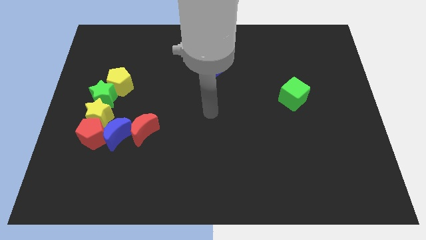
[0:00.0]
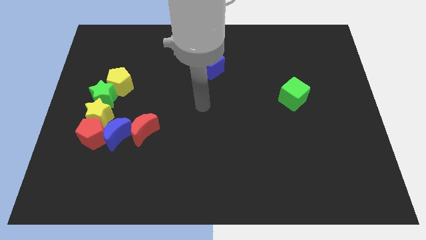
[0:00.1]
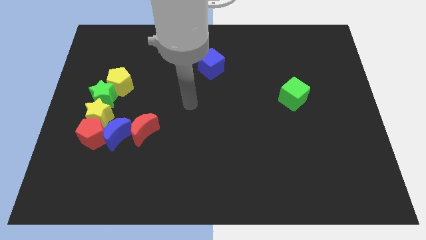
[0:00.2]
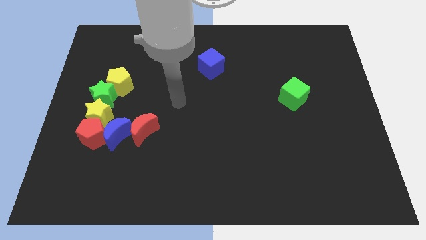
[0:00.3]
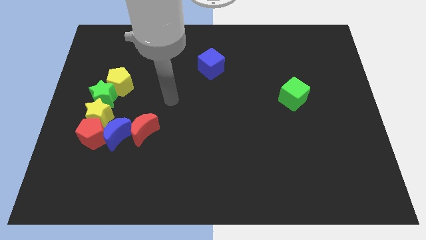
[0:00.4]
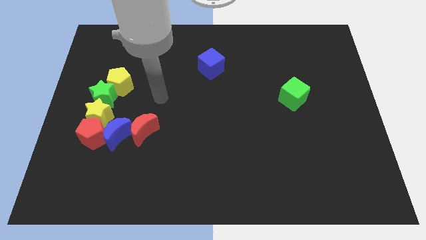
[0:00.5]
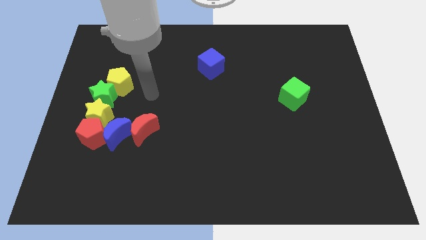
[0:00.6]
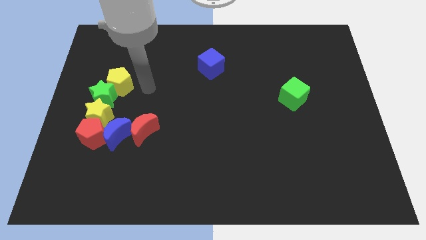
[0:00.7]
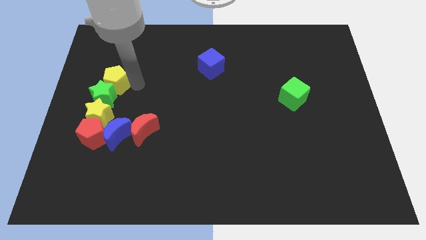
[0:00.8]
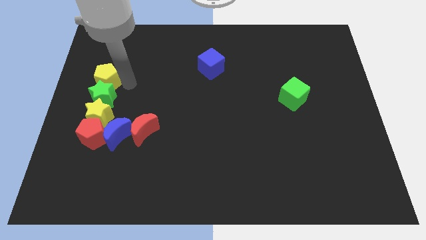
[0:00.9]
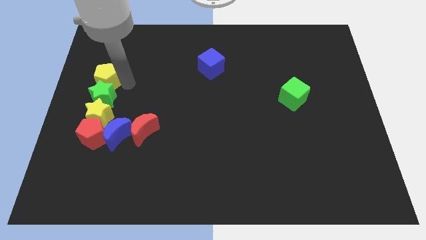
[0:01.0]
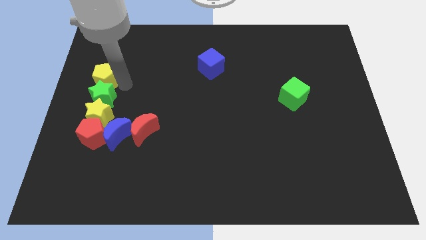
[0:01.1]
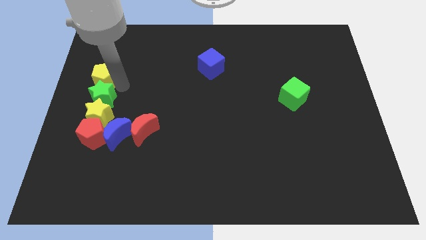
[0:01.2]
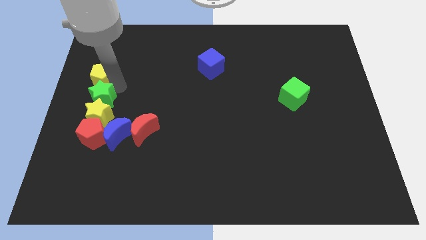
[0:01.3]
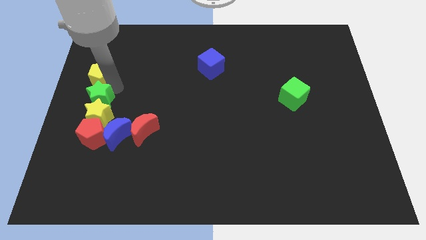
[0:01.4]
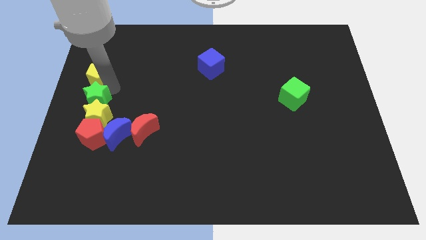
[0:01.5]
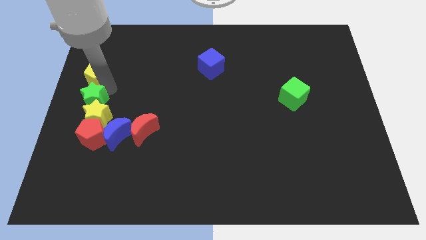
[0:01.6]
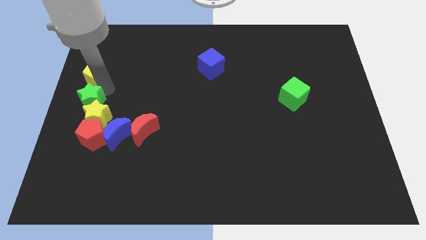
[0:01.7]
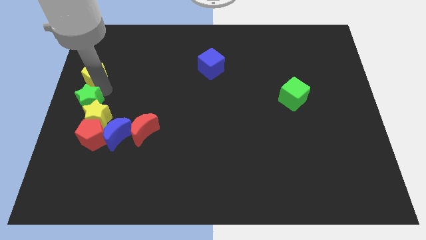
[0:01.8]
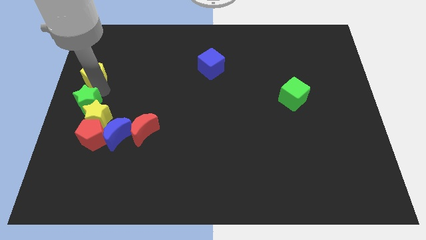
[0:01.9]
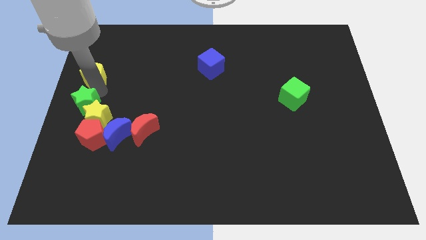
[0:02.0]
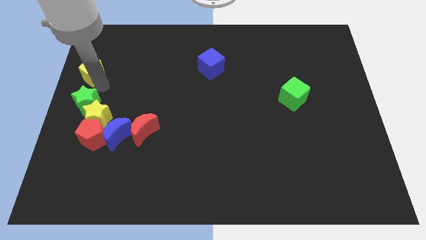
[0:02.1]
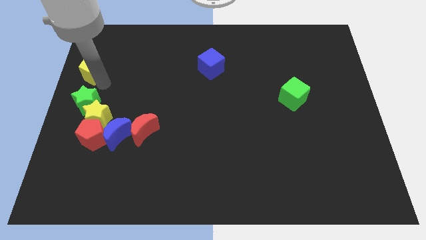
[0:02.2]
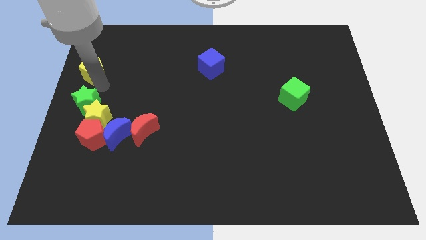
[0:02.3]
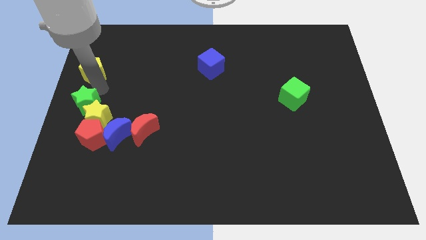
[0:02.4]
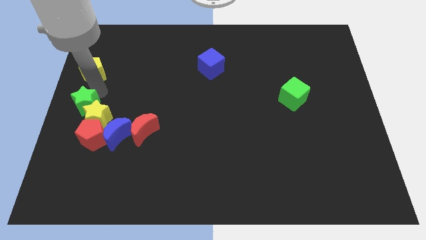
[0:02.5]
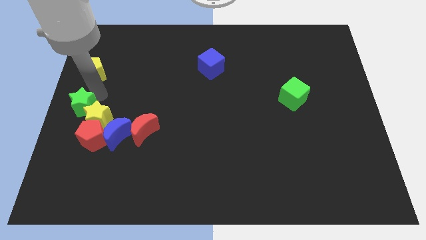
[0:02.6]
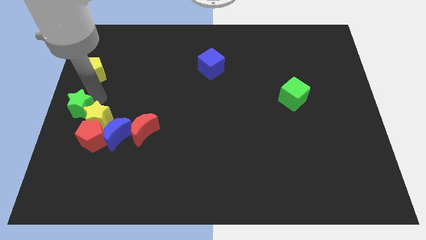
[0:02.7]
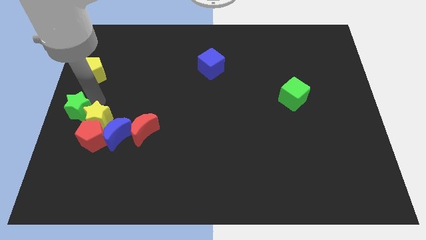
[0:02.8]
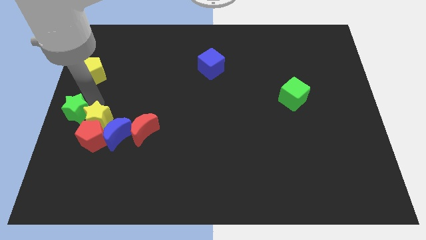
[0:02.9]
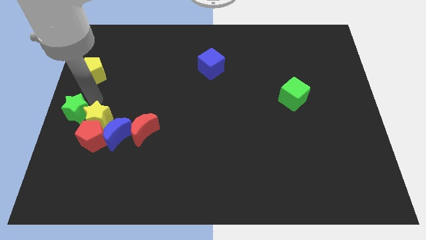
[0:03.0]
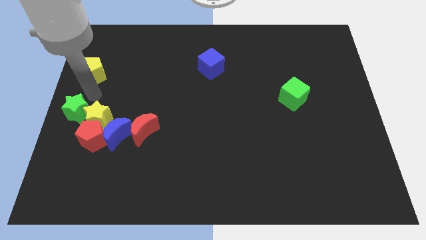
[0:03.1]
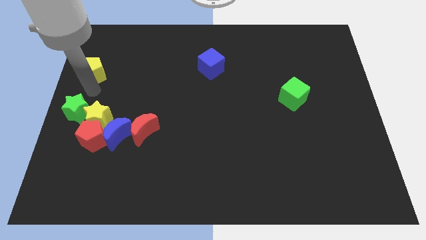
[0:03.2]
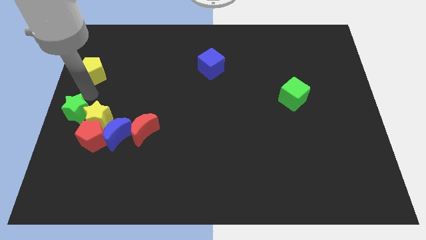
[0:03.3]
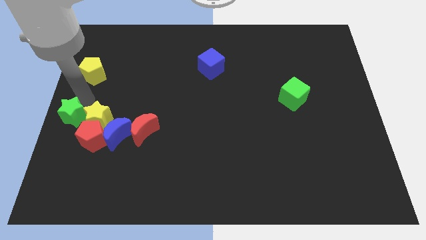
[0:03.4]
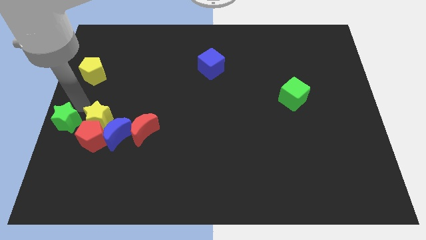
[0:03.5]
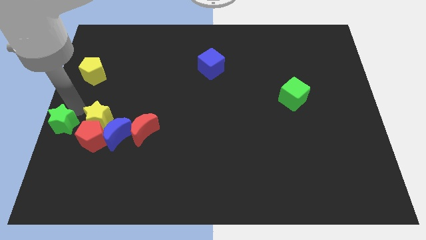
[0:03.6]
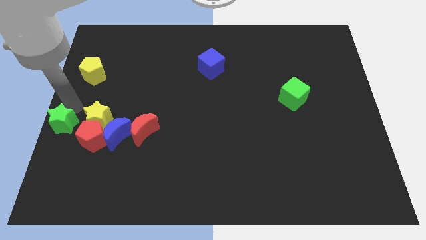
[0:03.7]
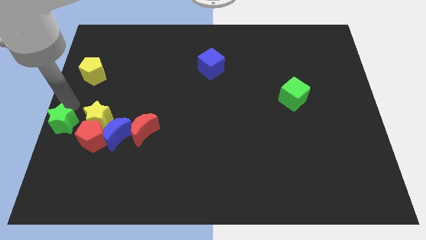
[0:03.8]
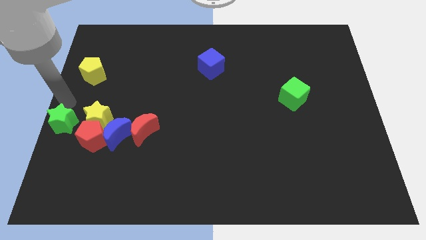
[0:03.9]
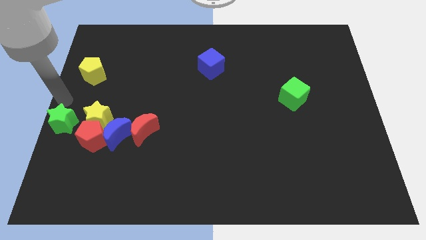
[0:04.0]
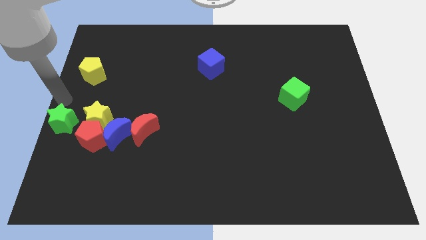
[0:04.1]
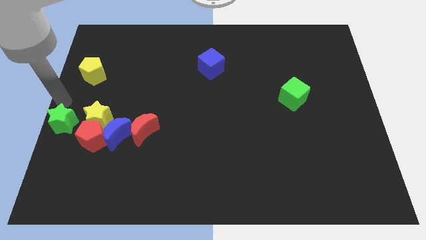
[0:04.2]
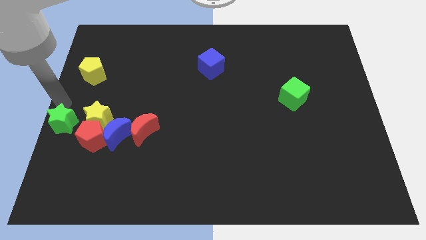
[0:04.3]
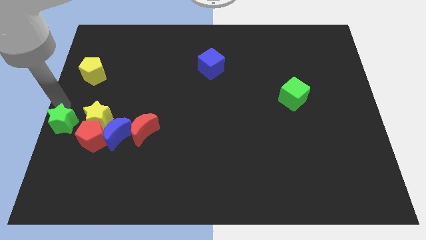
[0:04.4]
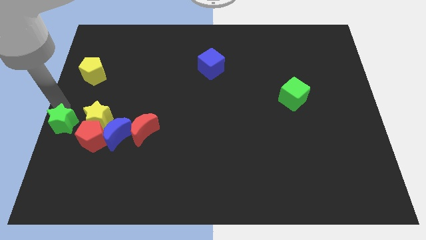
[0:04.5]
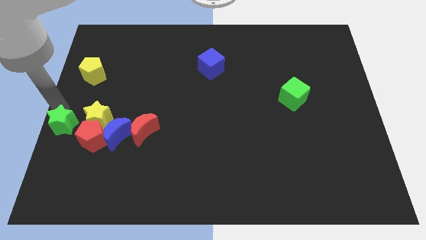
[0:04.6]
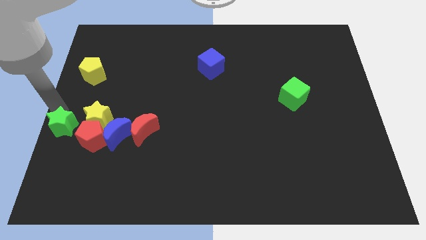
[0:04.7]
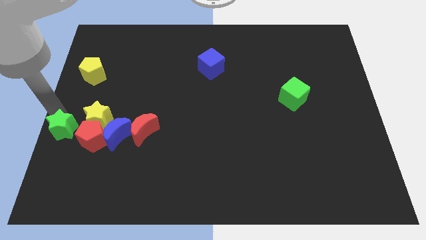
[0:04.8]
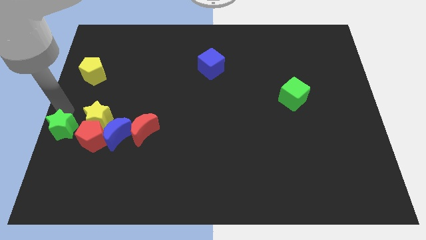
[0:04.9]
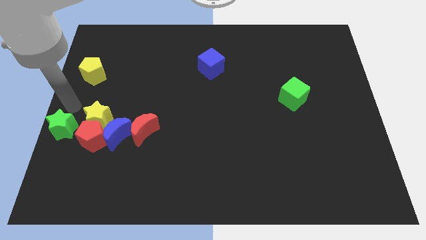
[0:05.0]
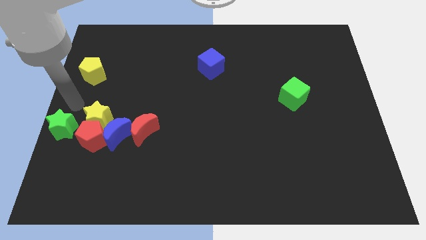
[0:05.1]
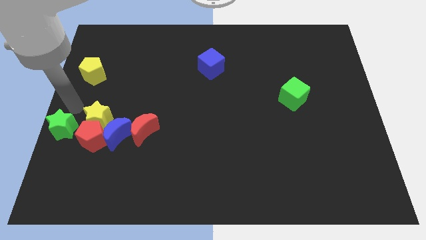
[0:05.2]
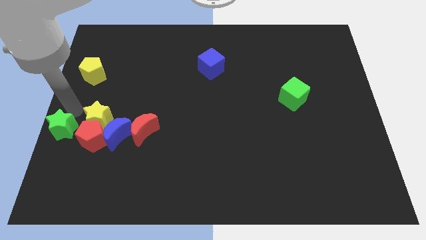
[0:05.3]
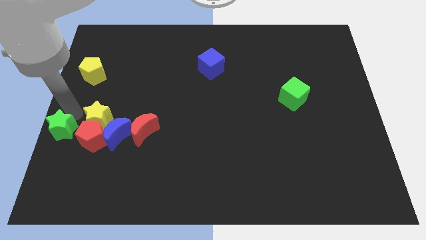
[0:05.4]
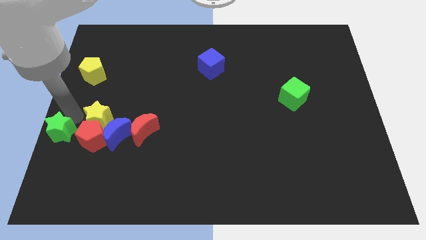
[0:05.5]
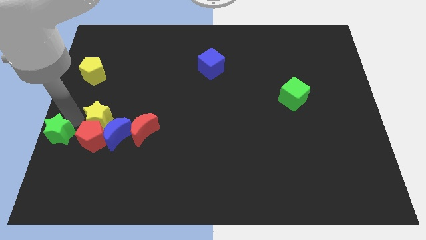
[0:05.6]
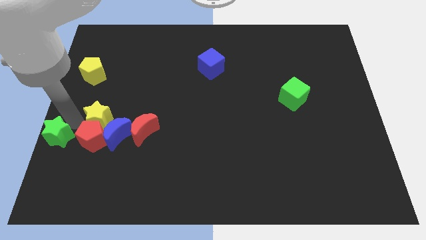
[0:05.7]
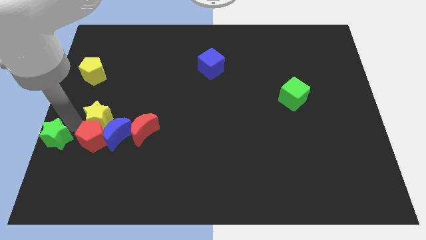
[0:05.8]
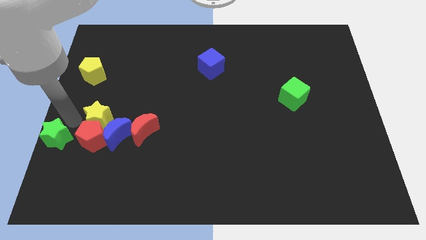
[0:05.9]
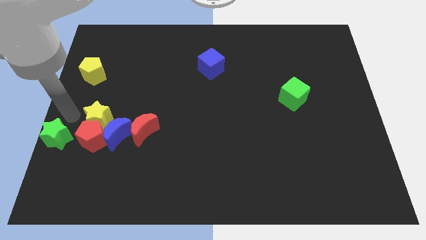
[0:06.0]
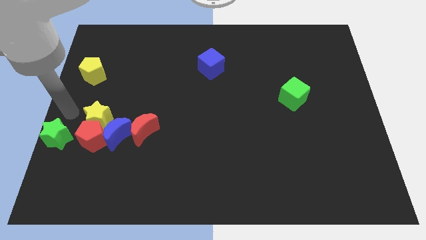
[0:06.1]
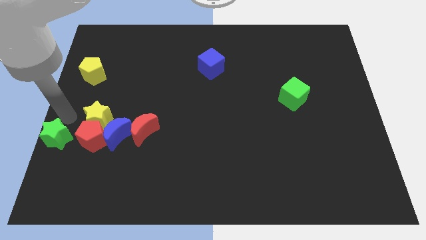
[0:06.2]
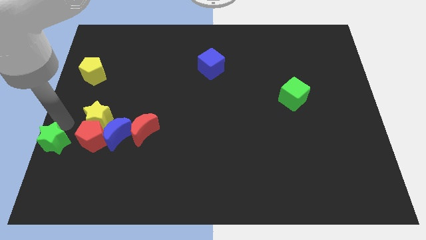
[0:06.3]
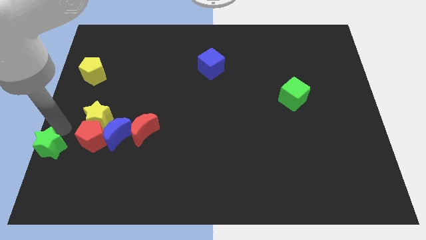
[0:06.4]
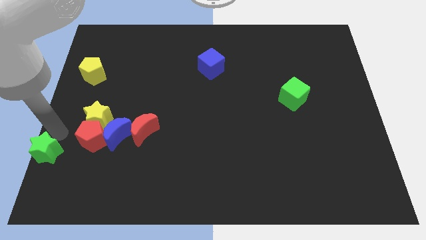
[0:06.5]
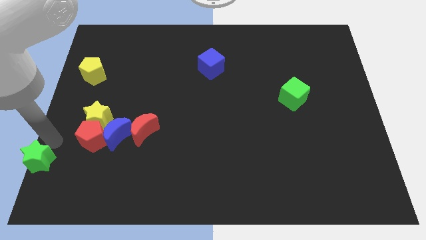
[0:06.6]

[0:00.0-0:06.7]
push the green star to the bottom left of the board
